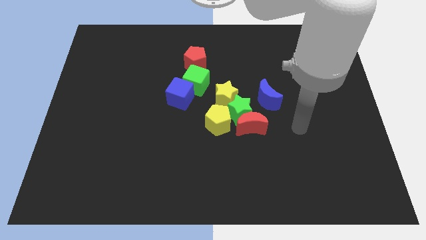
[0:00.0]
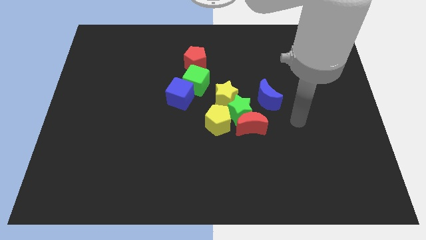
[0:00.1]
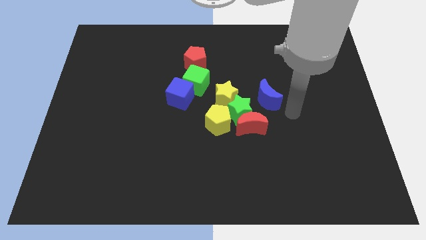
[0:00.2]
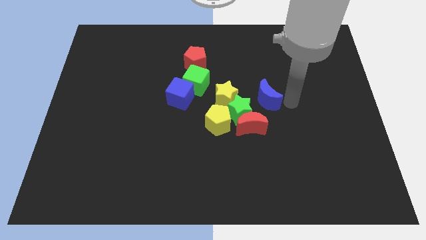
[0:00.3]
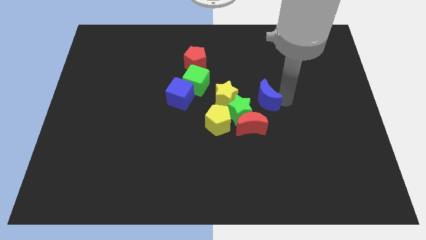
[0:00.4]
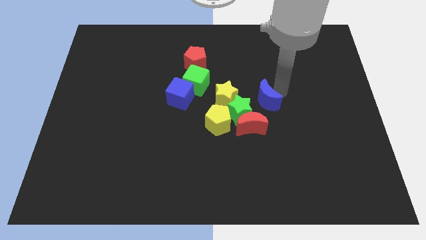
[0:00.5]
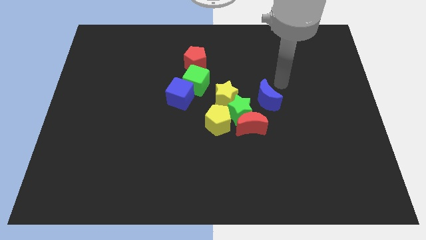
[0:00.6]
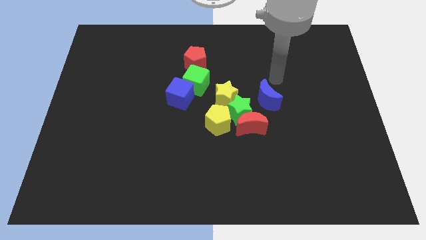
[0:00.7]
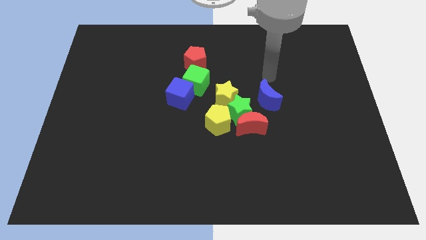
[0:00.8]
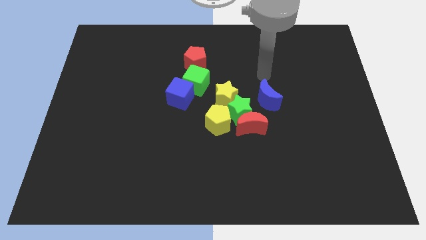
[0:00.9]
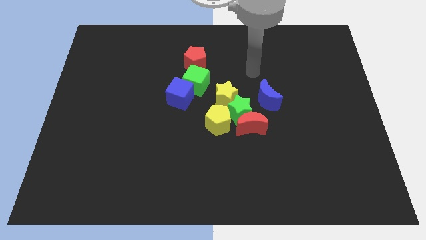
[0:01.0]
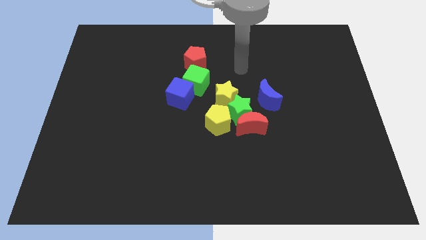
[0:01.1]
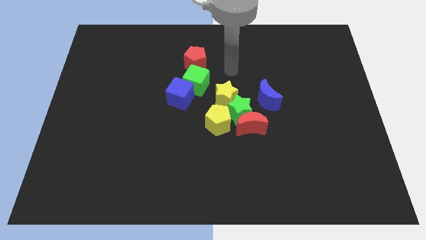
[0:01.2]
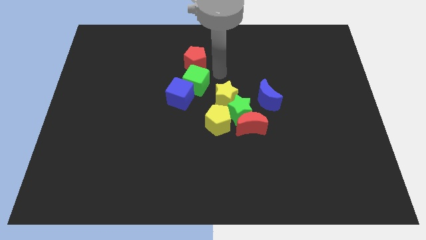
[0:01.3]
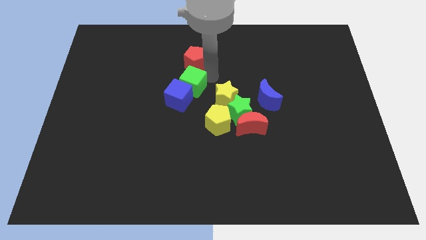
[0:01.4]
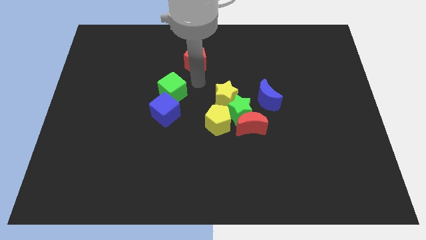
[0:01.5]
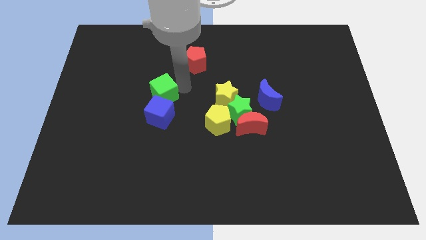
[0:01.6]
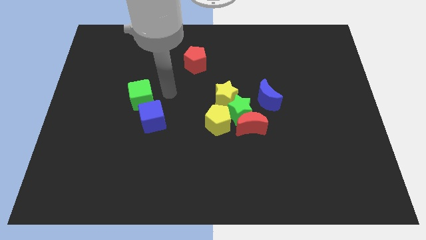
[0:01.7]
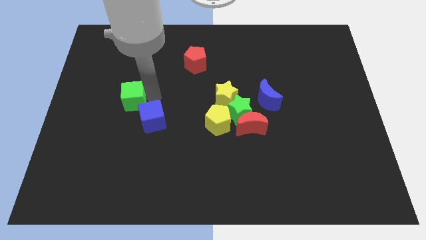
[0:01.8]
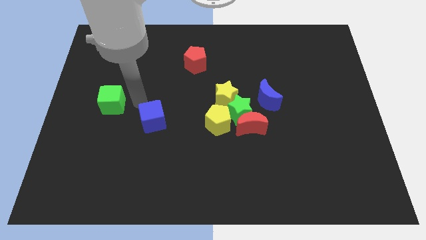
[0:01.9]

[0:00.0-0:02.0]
move the blue cube away from the green cube

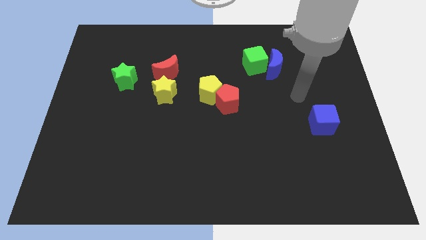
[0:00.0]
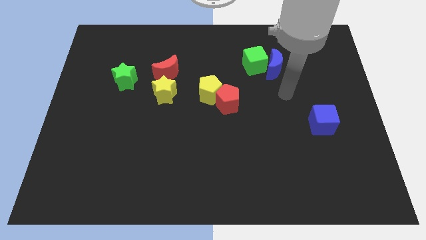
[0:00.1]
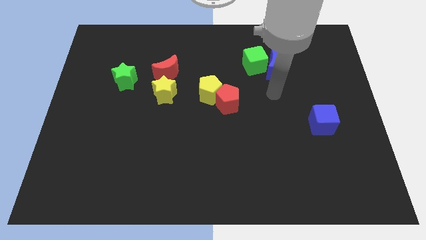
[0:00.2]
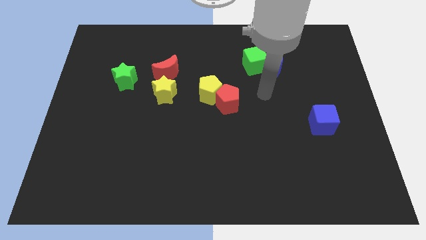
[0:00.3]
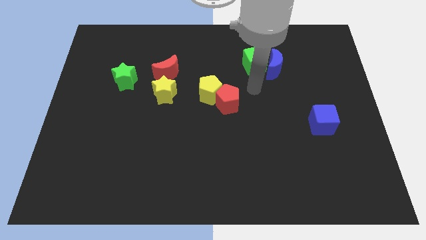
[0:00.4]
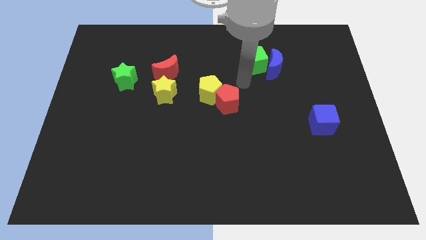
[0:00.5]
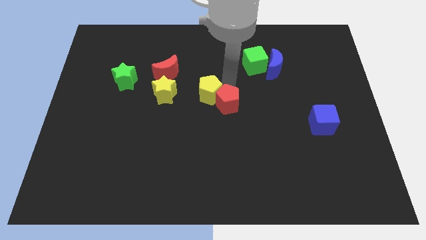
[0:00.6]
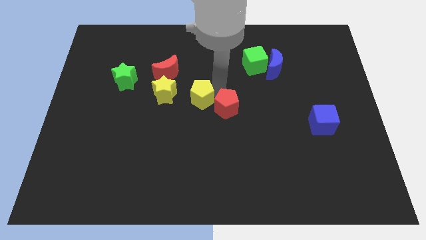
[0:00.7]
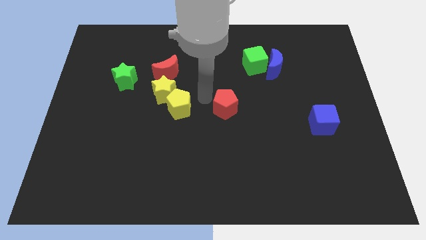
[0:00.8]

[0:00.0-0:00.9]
separate the red pentagon from the yellow pentagon

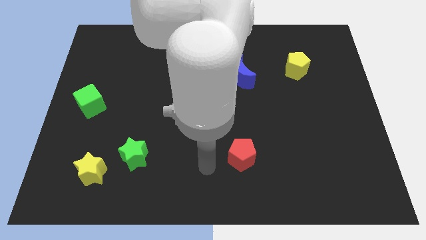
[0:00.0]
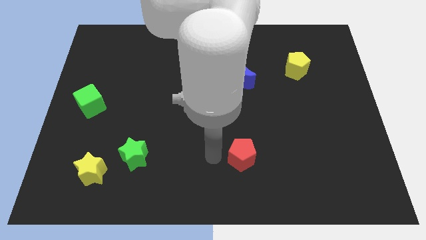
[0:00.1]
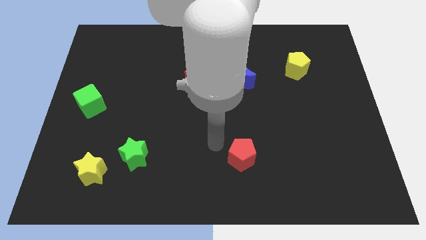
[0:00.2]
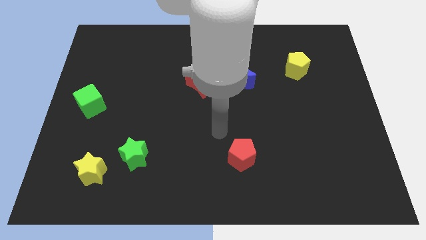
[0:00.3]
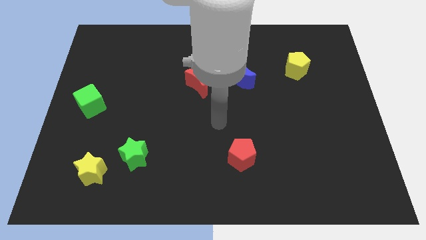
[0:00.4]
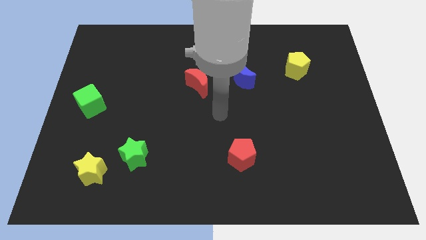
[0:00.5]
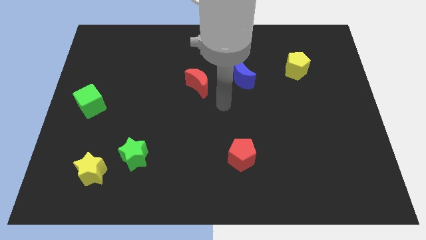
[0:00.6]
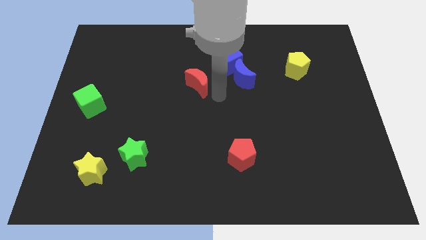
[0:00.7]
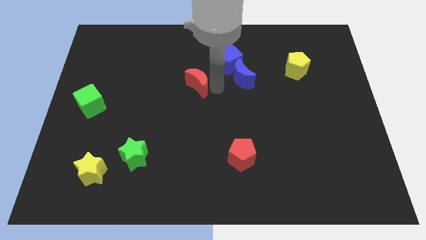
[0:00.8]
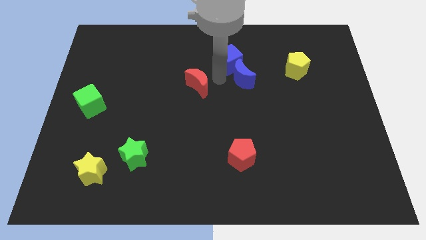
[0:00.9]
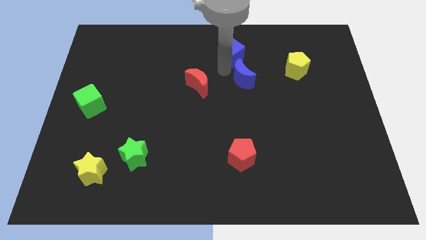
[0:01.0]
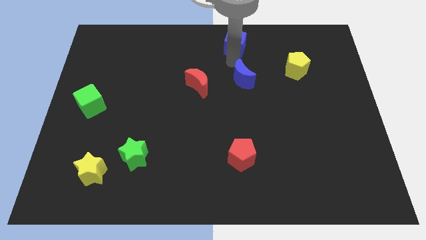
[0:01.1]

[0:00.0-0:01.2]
separate the blue moon from the blue cube

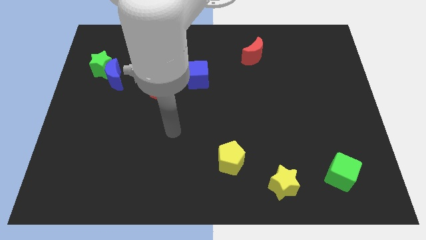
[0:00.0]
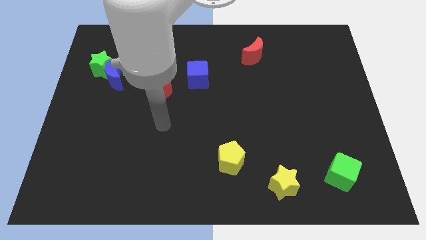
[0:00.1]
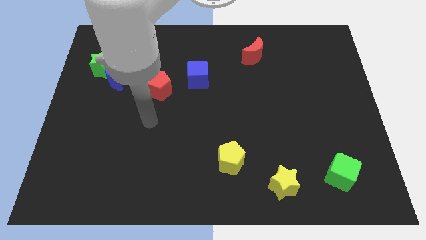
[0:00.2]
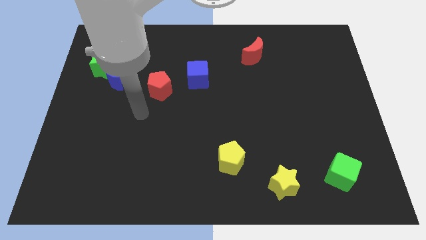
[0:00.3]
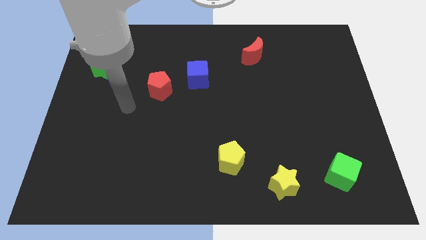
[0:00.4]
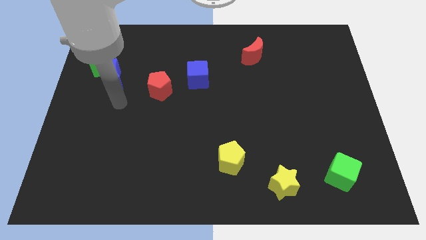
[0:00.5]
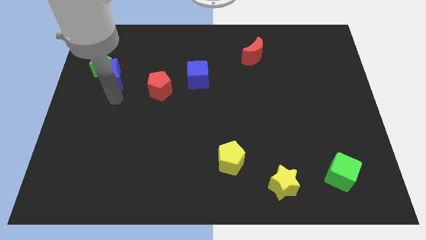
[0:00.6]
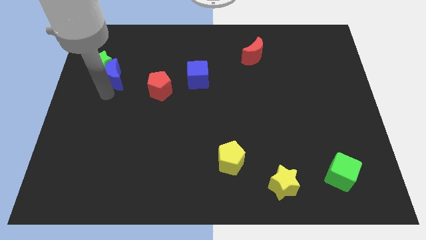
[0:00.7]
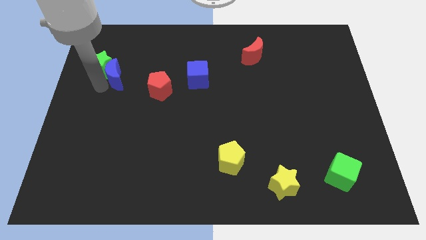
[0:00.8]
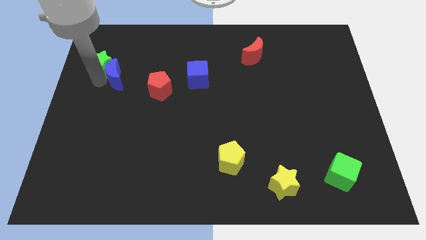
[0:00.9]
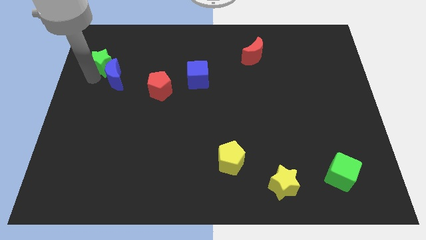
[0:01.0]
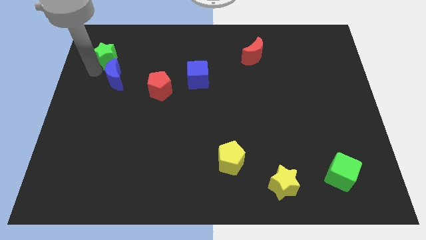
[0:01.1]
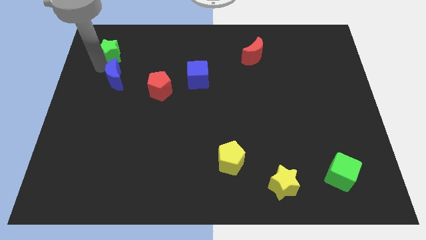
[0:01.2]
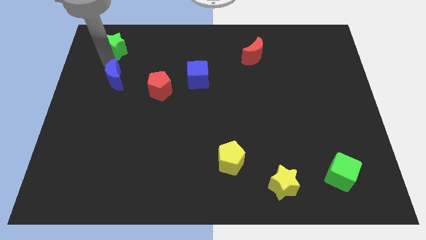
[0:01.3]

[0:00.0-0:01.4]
separate the blue moon from the green star

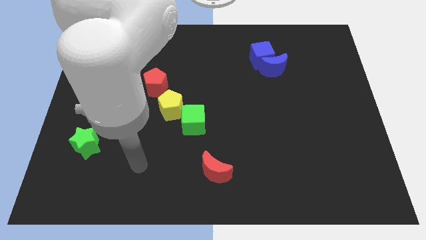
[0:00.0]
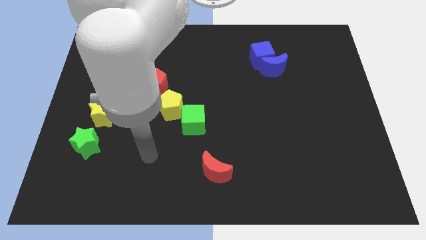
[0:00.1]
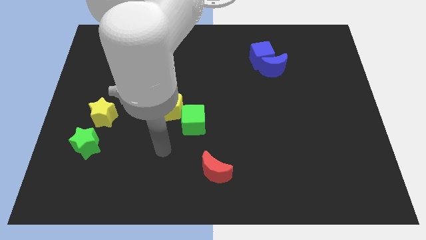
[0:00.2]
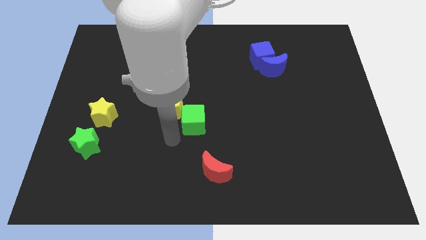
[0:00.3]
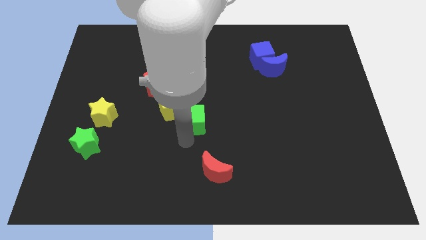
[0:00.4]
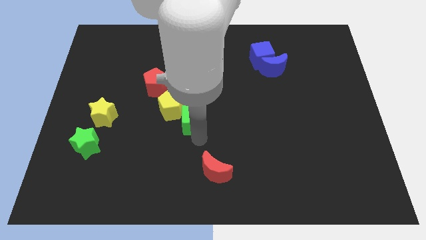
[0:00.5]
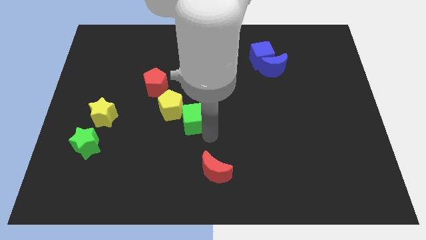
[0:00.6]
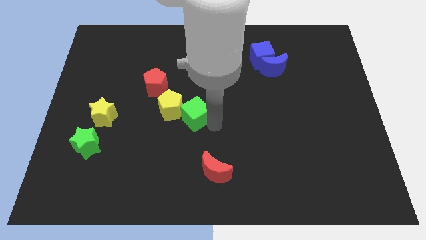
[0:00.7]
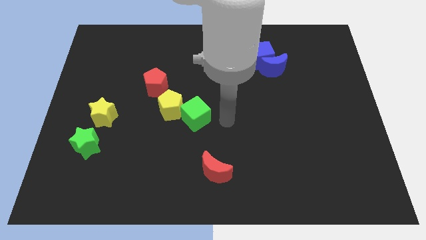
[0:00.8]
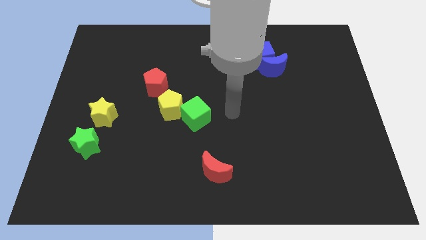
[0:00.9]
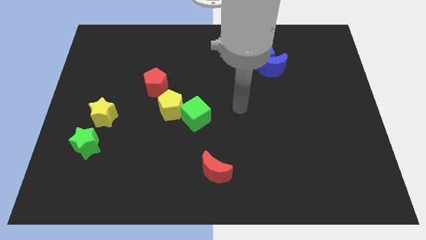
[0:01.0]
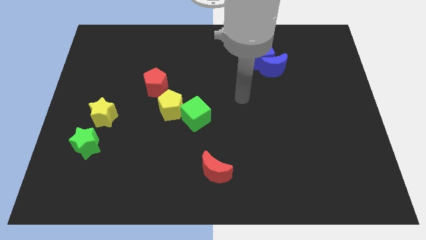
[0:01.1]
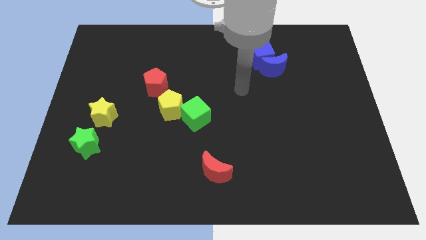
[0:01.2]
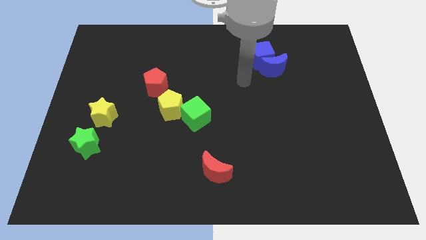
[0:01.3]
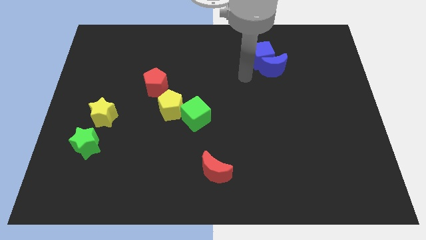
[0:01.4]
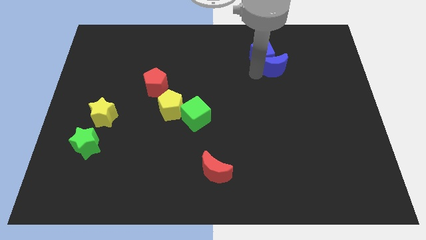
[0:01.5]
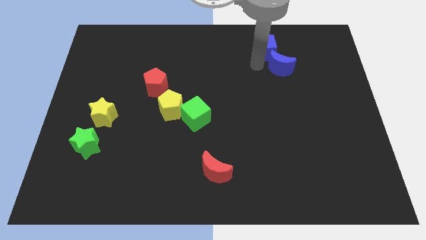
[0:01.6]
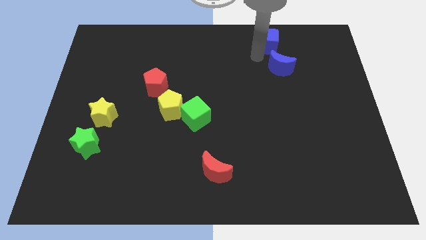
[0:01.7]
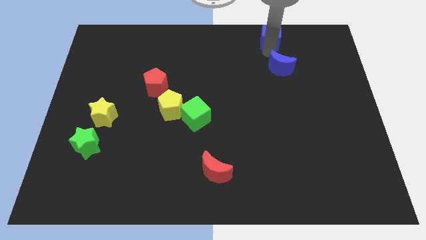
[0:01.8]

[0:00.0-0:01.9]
pull the blue moon apart from the blue cube

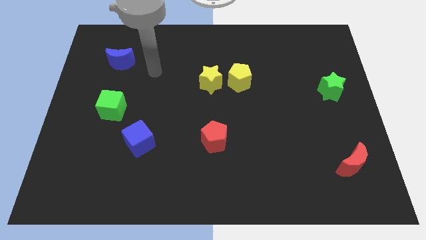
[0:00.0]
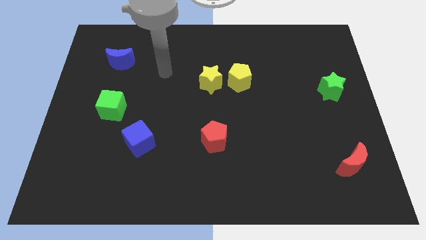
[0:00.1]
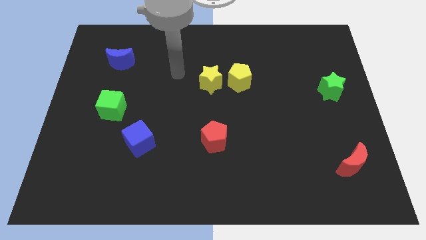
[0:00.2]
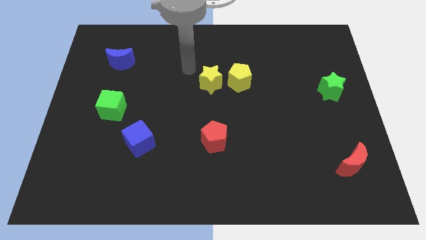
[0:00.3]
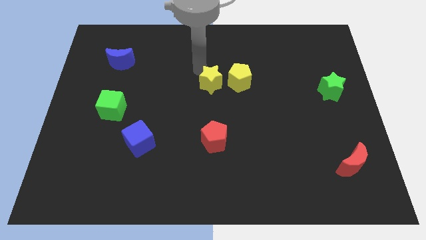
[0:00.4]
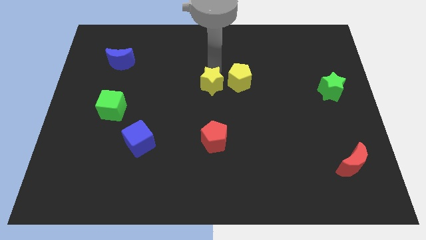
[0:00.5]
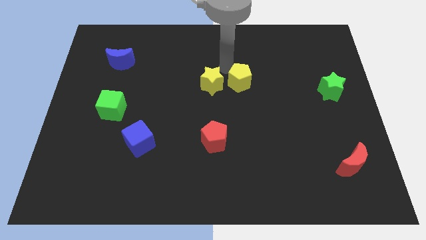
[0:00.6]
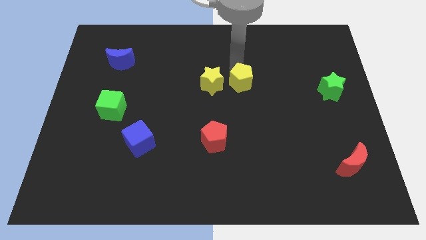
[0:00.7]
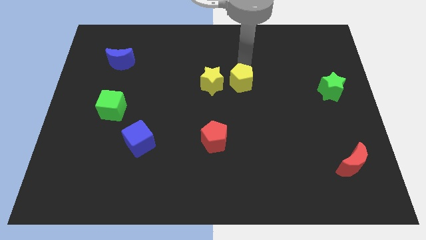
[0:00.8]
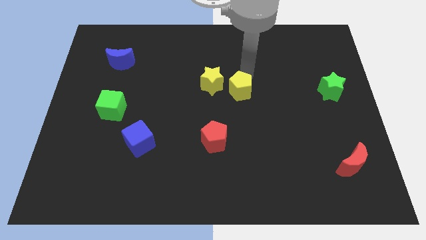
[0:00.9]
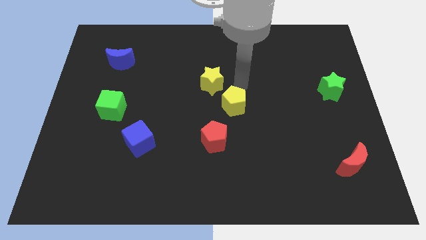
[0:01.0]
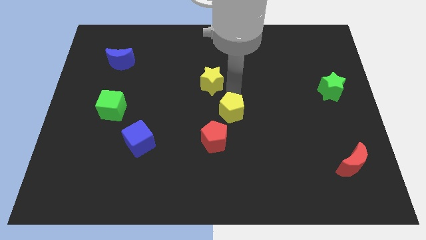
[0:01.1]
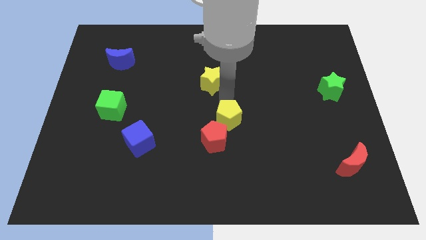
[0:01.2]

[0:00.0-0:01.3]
separate the yellow star from the yellow pentagon

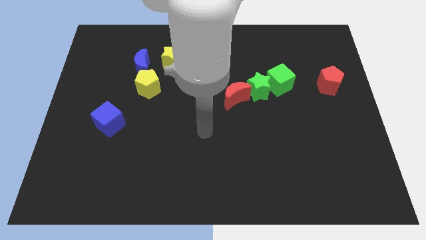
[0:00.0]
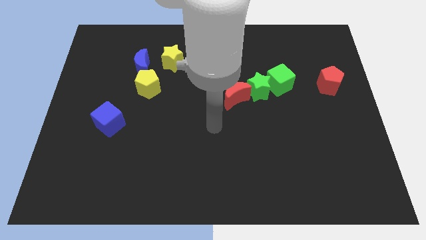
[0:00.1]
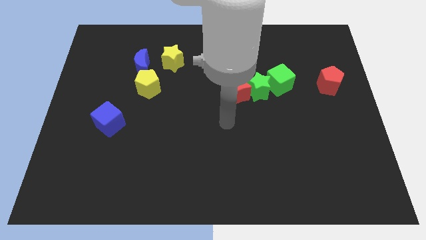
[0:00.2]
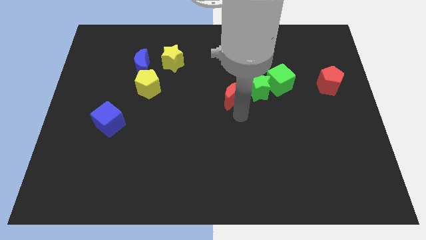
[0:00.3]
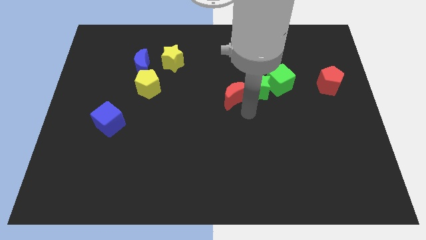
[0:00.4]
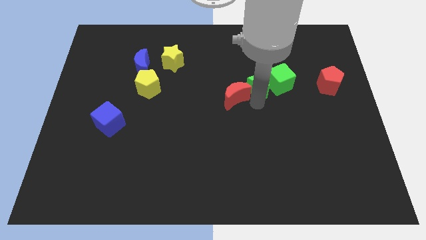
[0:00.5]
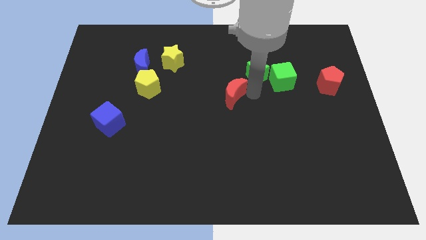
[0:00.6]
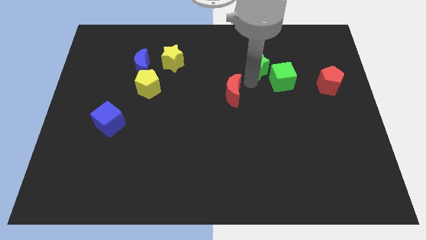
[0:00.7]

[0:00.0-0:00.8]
separate the red moon from the green star
